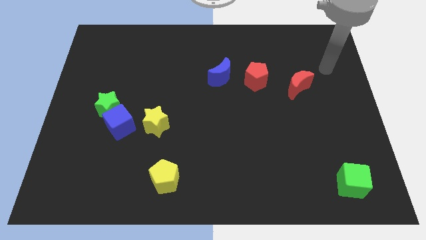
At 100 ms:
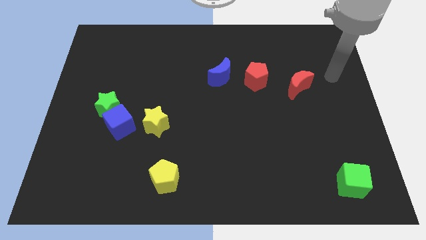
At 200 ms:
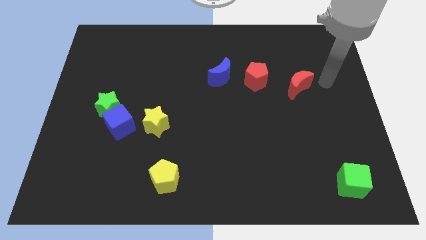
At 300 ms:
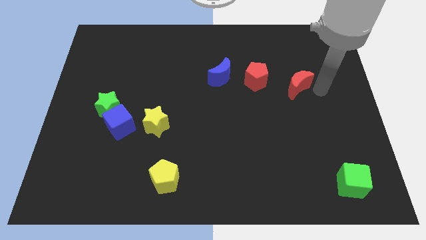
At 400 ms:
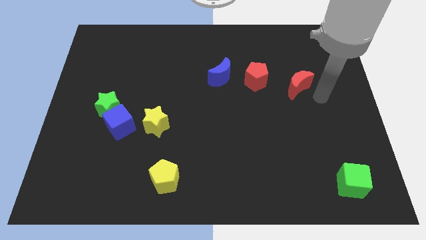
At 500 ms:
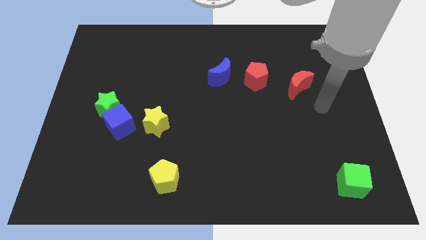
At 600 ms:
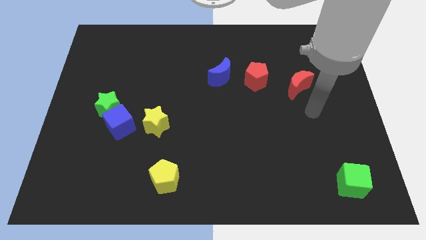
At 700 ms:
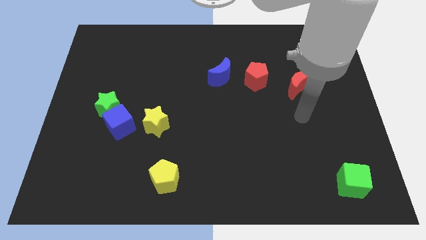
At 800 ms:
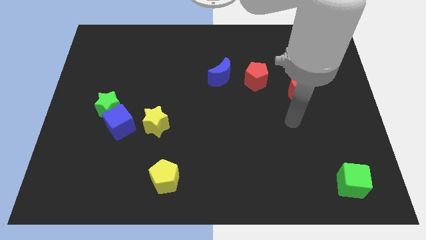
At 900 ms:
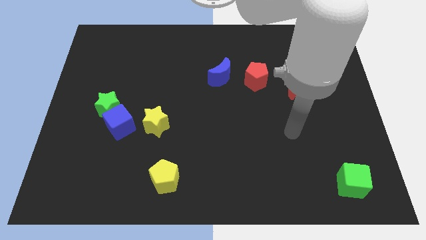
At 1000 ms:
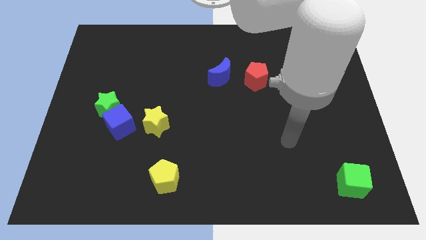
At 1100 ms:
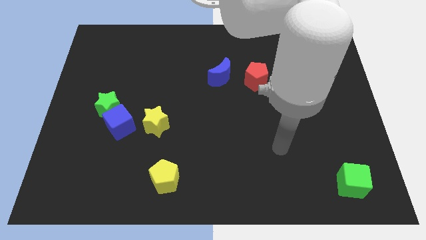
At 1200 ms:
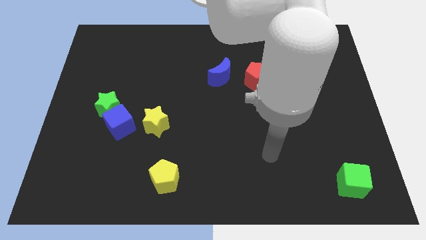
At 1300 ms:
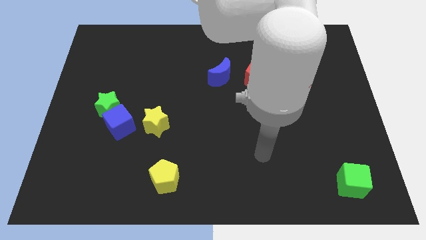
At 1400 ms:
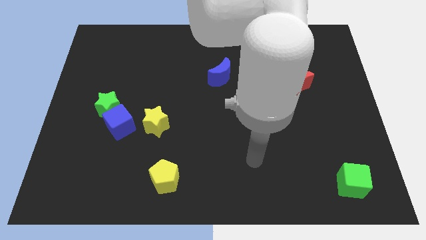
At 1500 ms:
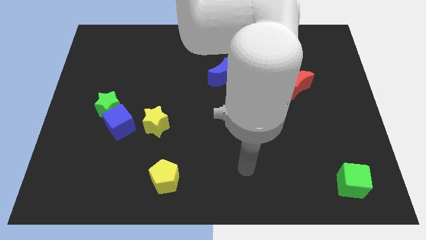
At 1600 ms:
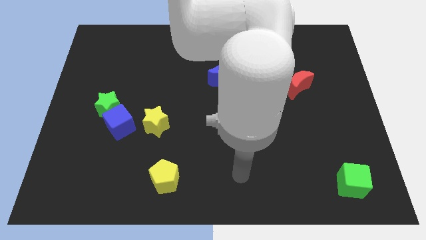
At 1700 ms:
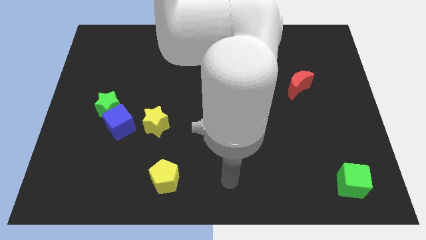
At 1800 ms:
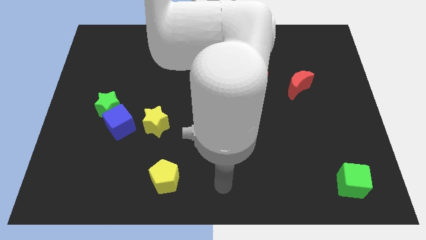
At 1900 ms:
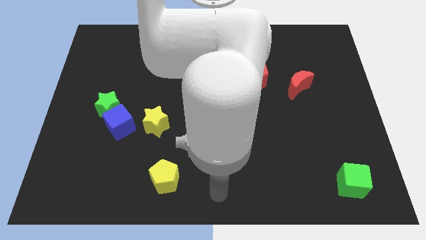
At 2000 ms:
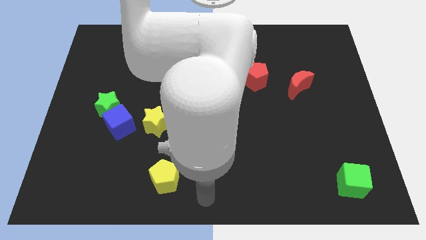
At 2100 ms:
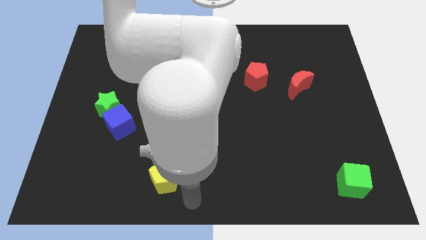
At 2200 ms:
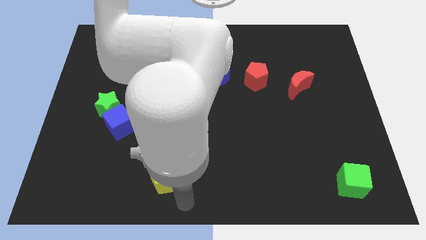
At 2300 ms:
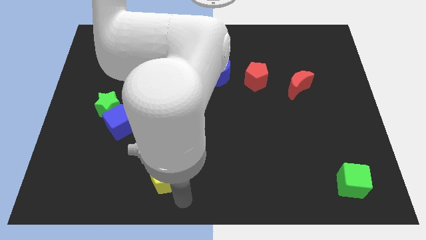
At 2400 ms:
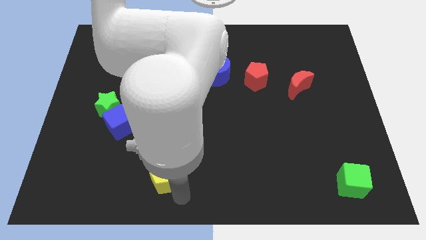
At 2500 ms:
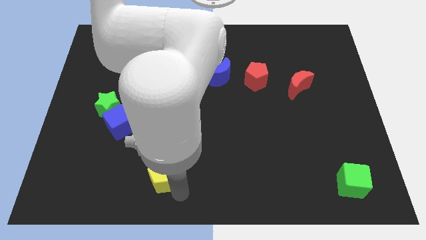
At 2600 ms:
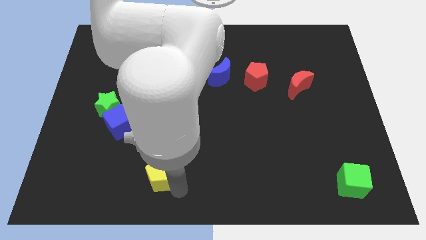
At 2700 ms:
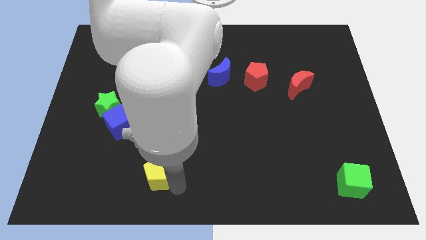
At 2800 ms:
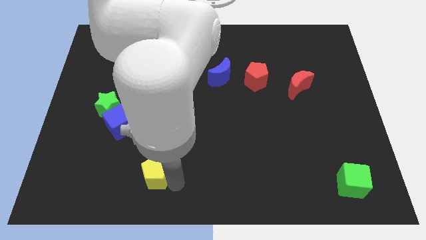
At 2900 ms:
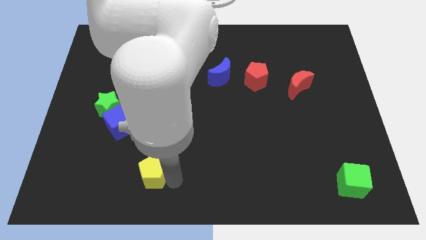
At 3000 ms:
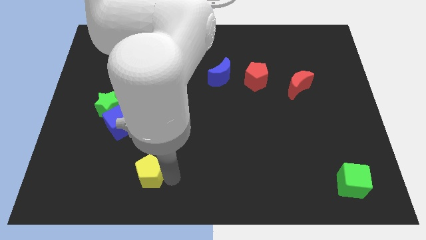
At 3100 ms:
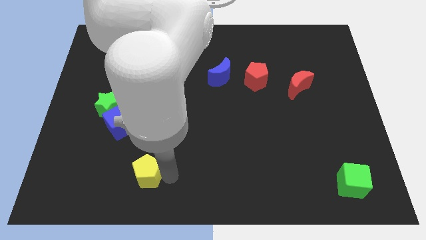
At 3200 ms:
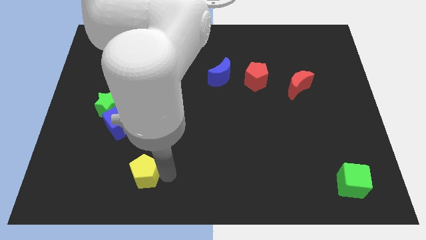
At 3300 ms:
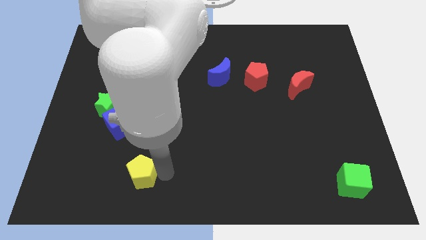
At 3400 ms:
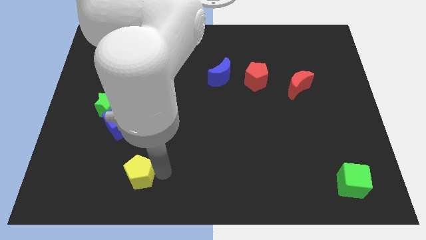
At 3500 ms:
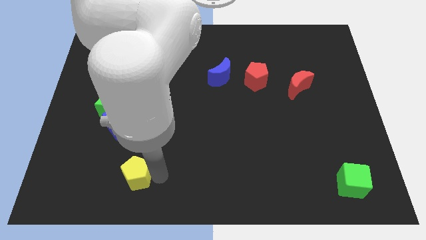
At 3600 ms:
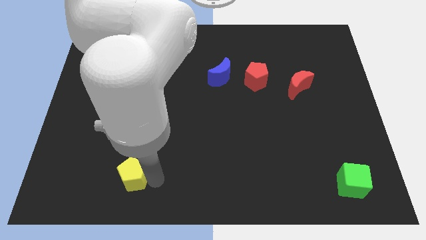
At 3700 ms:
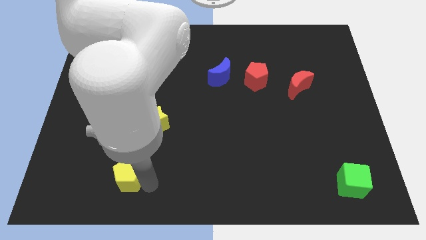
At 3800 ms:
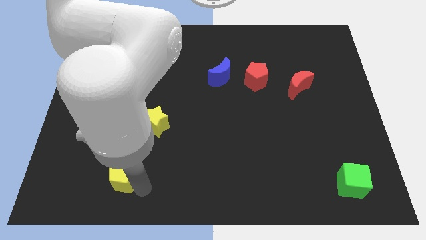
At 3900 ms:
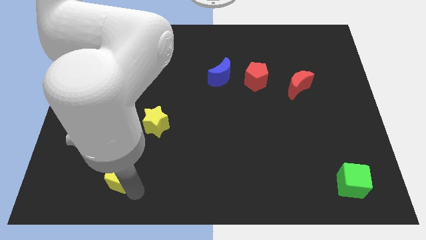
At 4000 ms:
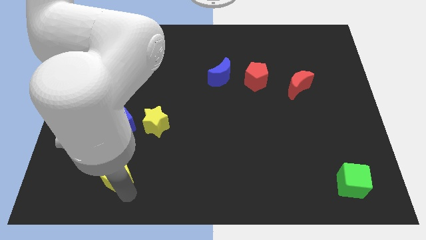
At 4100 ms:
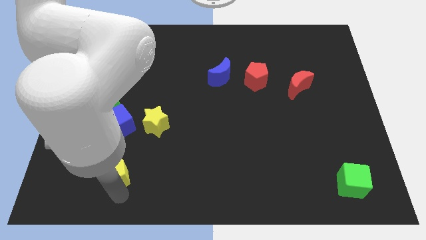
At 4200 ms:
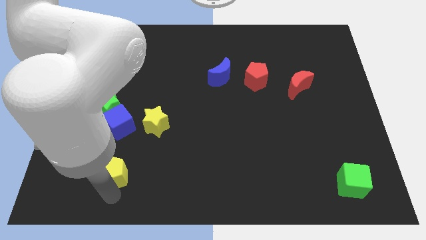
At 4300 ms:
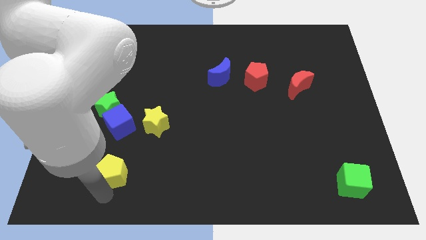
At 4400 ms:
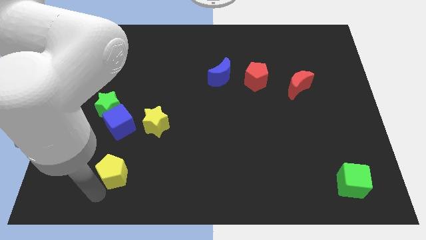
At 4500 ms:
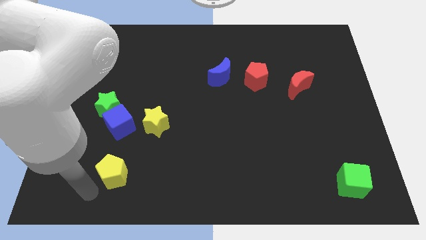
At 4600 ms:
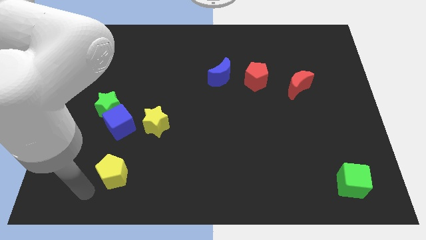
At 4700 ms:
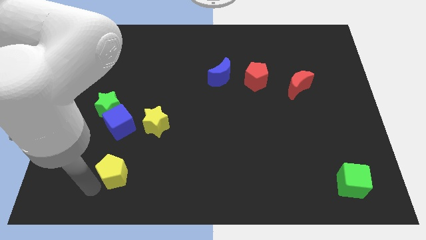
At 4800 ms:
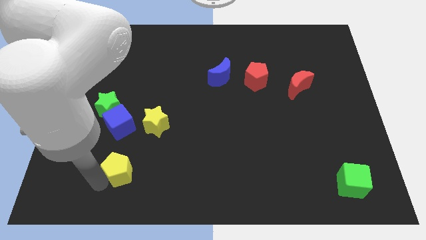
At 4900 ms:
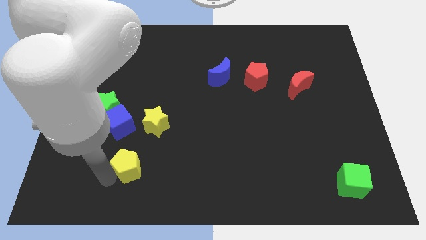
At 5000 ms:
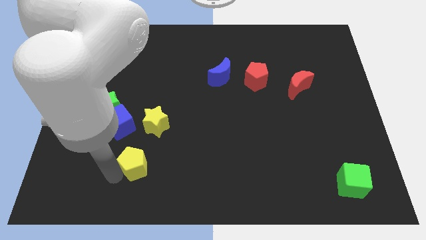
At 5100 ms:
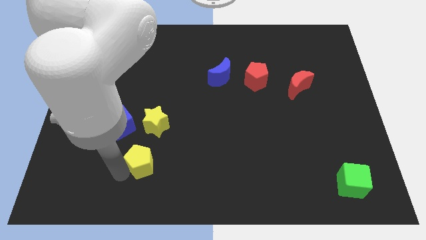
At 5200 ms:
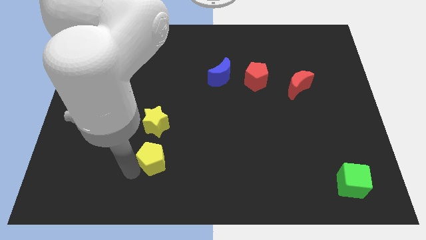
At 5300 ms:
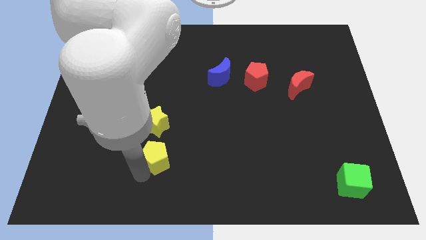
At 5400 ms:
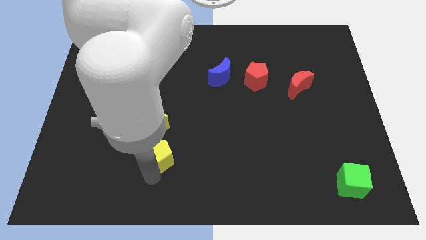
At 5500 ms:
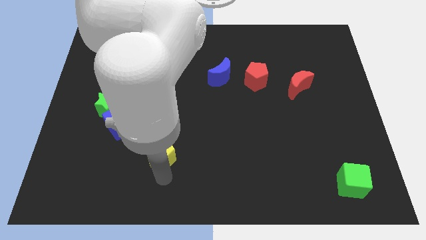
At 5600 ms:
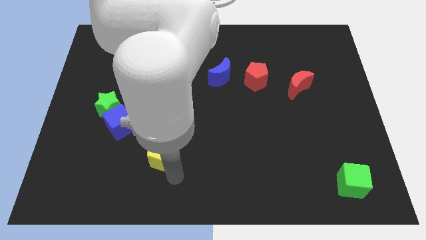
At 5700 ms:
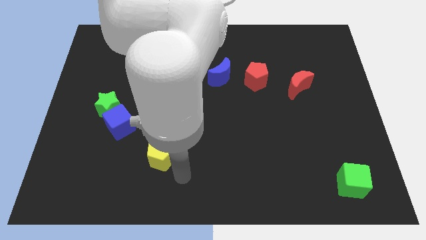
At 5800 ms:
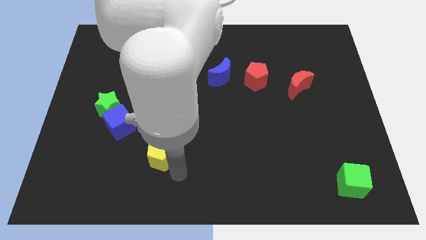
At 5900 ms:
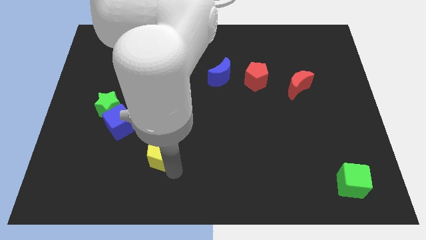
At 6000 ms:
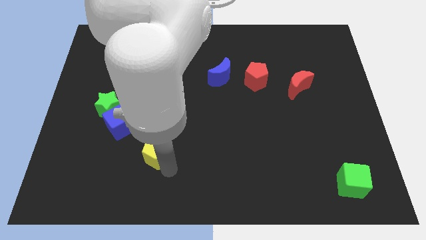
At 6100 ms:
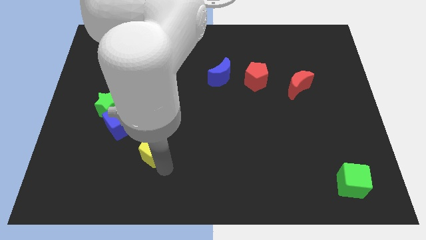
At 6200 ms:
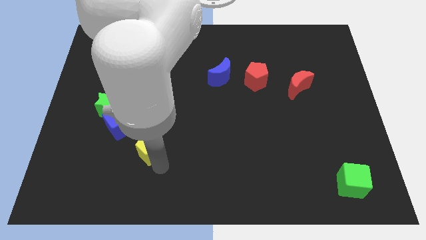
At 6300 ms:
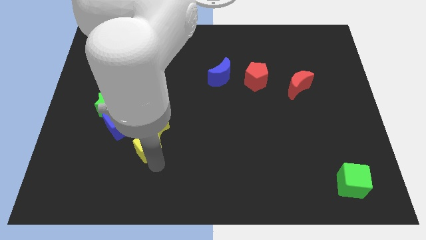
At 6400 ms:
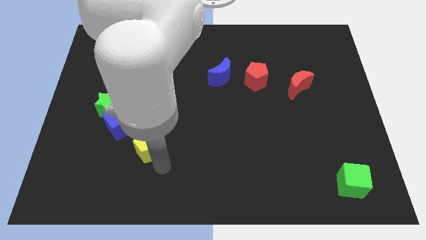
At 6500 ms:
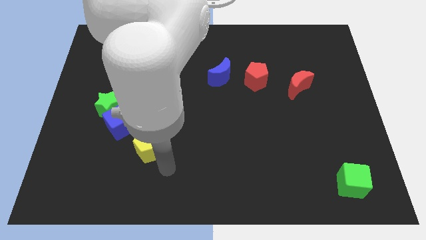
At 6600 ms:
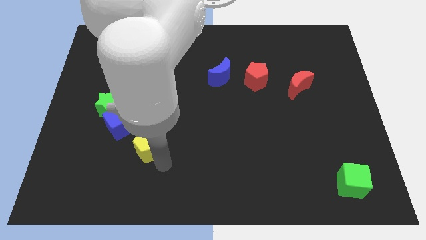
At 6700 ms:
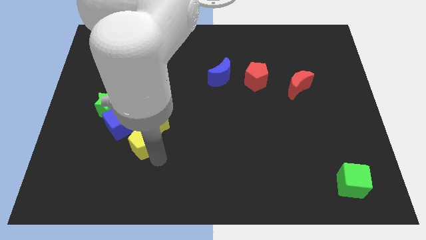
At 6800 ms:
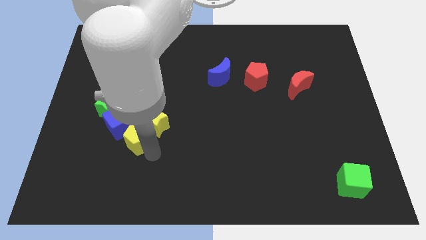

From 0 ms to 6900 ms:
push the yellow pentagon to the bottom right of the green star

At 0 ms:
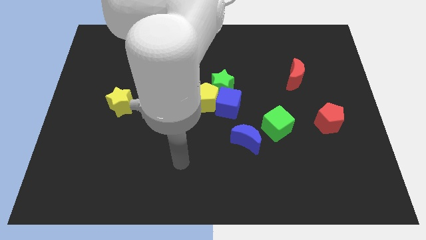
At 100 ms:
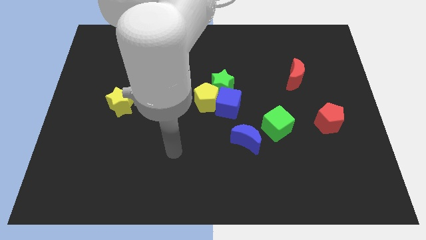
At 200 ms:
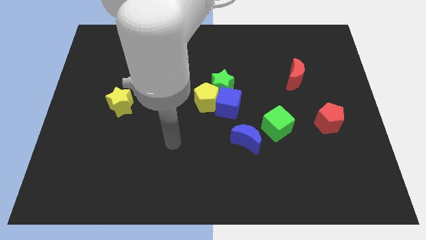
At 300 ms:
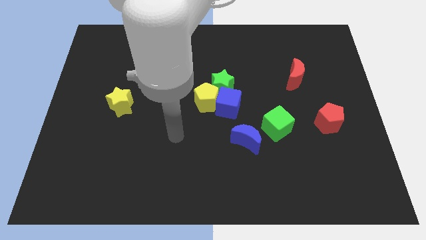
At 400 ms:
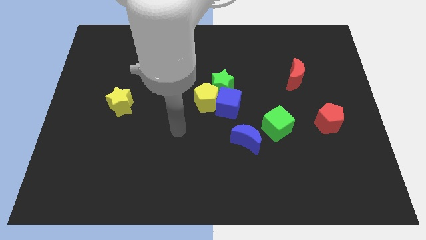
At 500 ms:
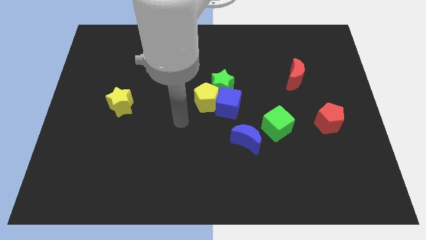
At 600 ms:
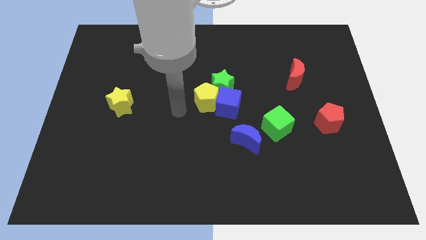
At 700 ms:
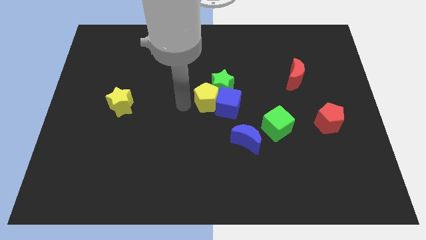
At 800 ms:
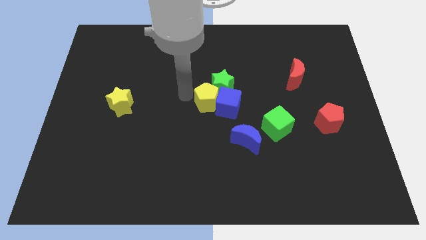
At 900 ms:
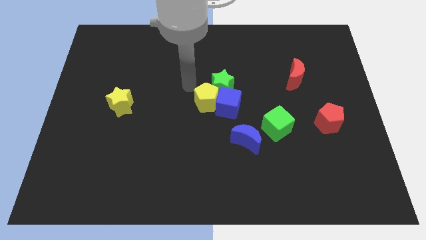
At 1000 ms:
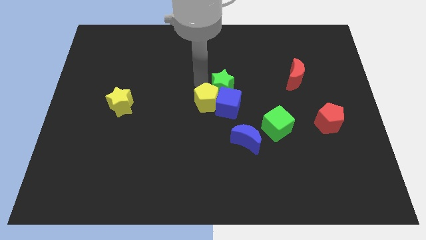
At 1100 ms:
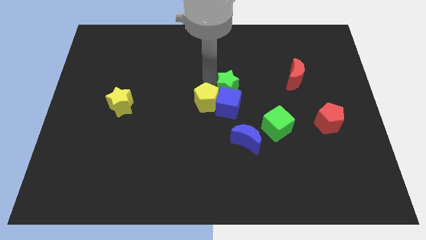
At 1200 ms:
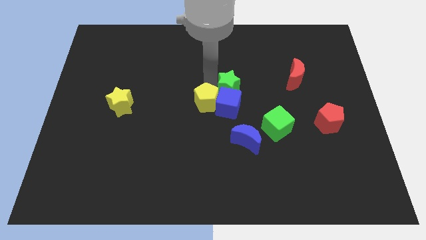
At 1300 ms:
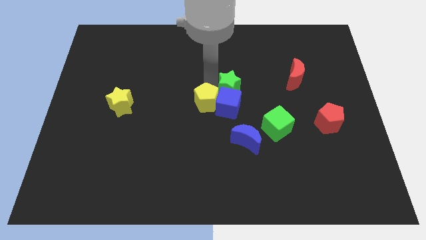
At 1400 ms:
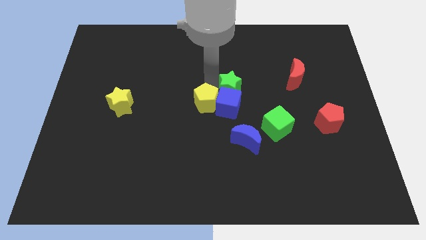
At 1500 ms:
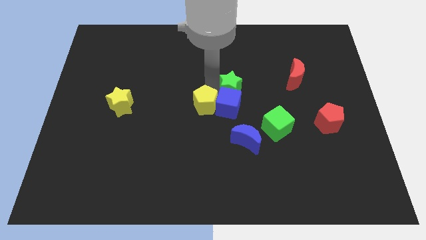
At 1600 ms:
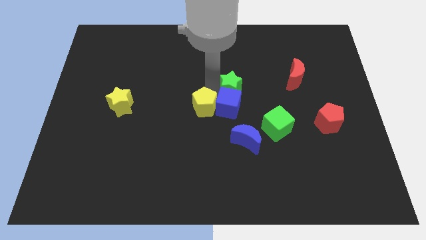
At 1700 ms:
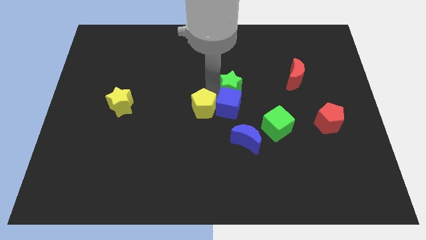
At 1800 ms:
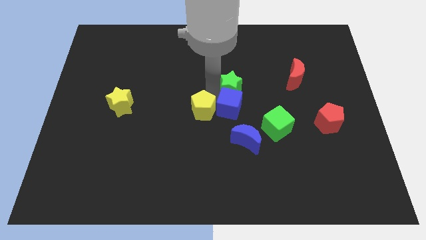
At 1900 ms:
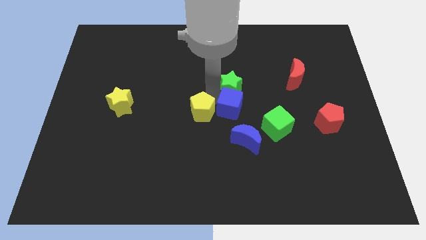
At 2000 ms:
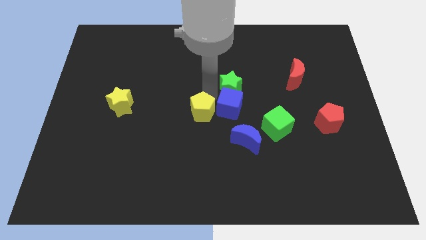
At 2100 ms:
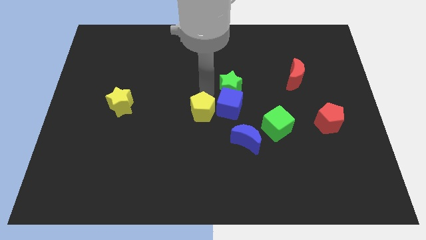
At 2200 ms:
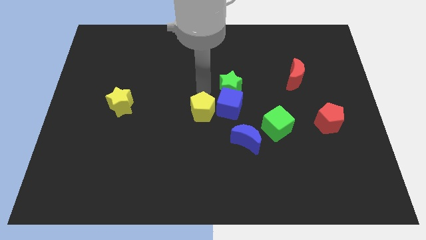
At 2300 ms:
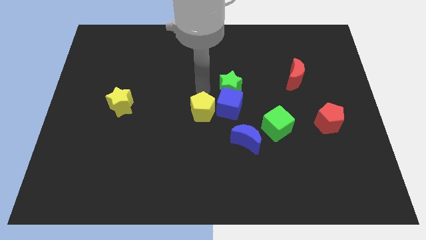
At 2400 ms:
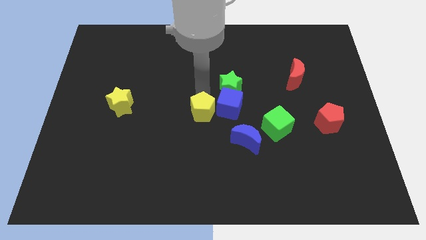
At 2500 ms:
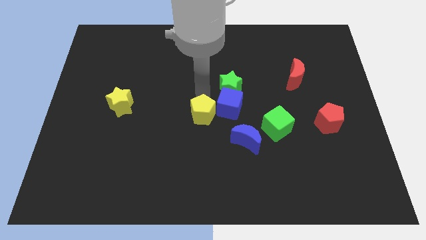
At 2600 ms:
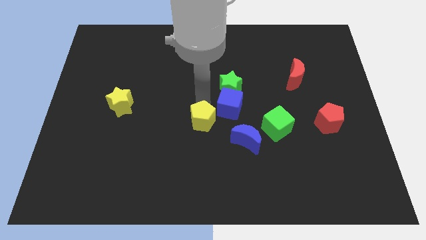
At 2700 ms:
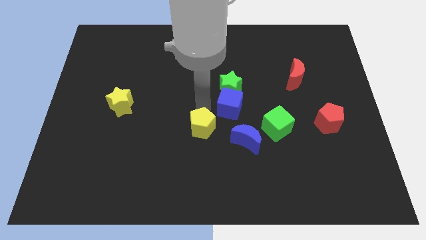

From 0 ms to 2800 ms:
move the yellow pentagon to the left side of the blue moon
